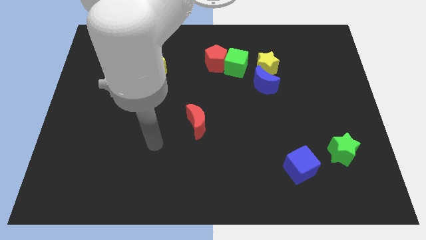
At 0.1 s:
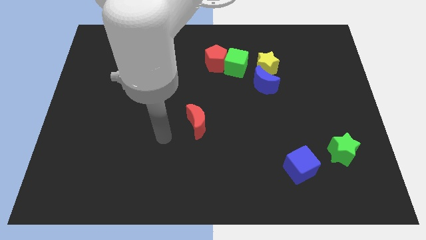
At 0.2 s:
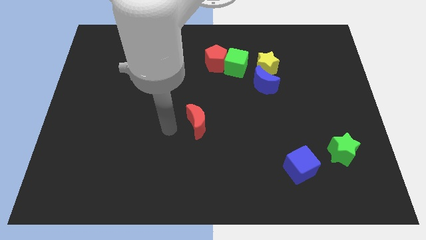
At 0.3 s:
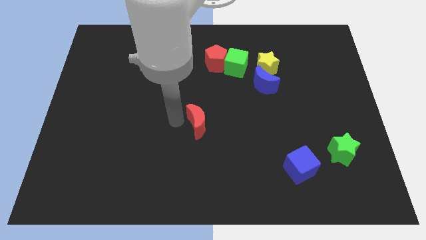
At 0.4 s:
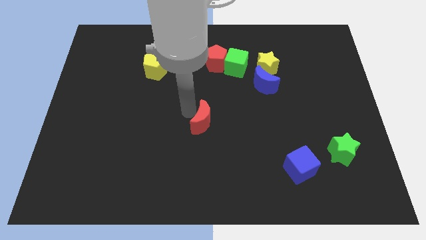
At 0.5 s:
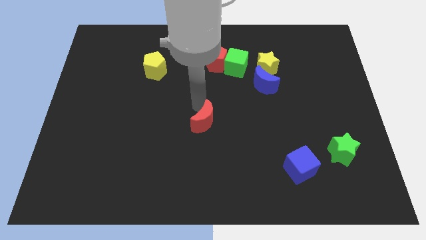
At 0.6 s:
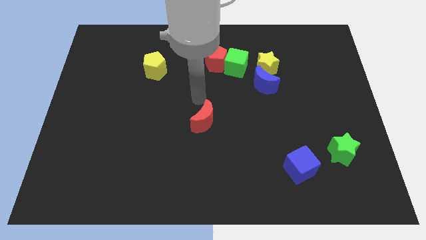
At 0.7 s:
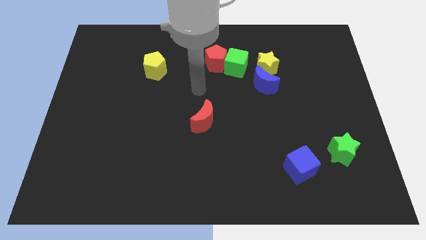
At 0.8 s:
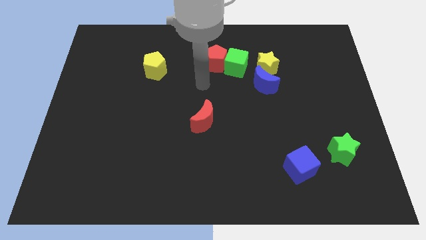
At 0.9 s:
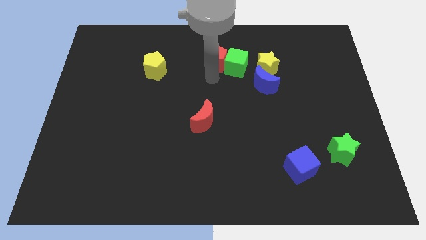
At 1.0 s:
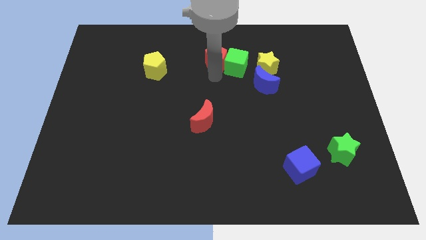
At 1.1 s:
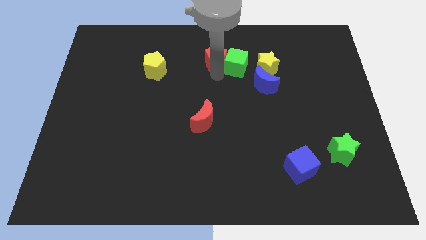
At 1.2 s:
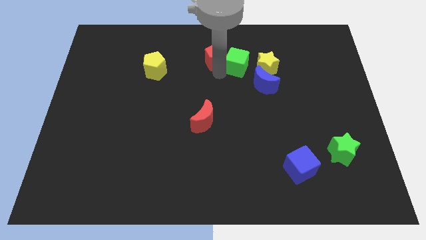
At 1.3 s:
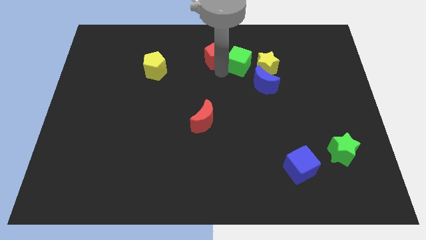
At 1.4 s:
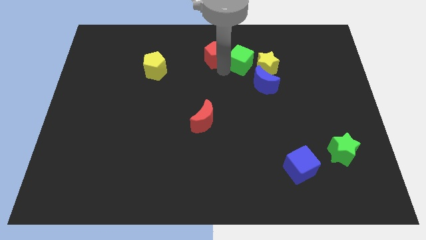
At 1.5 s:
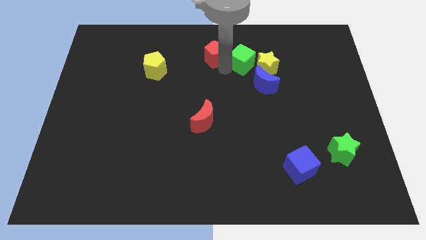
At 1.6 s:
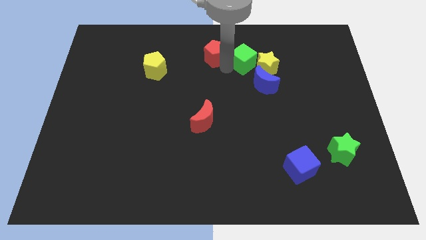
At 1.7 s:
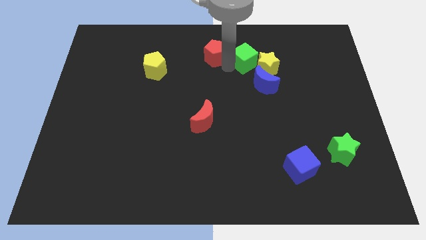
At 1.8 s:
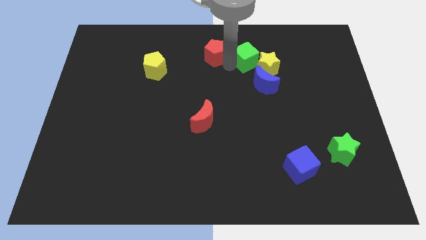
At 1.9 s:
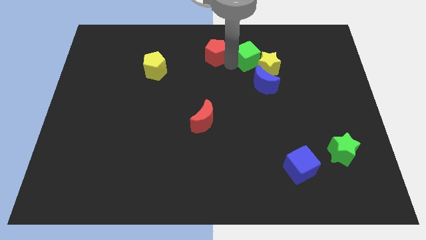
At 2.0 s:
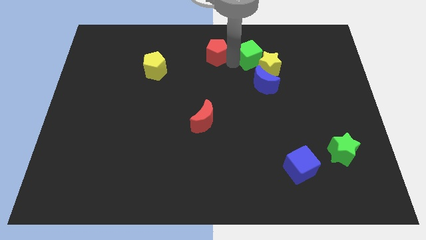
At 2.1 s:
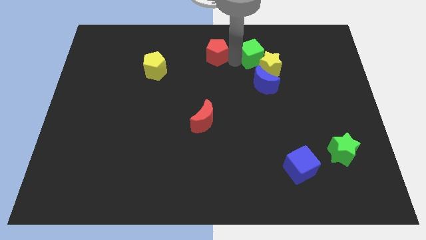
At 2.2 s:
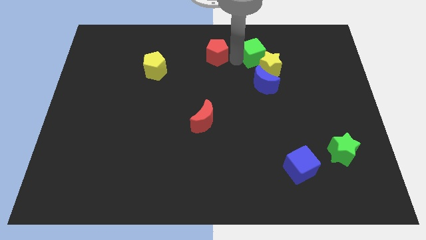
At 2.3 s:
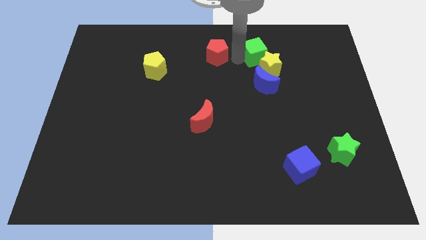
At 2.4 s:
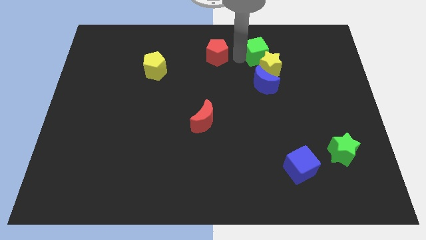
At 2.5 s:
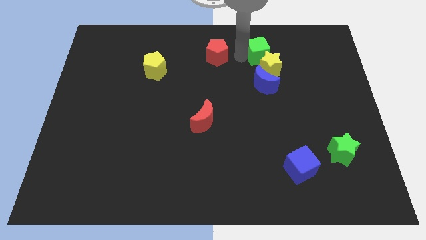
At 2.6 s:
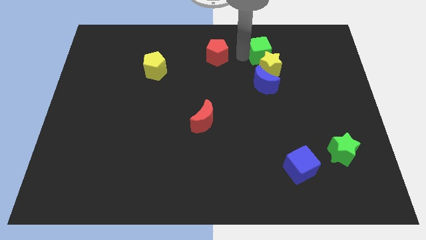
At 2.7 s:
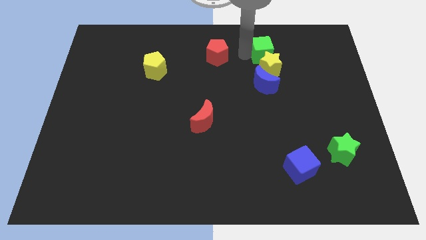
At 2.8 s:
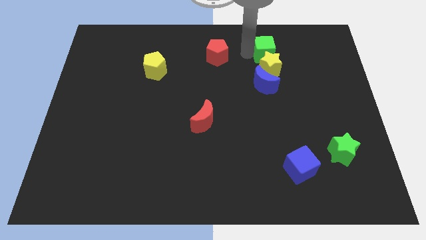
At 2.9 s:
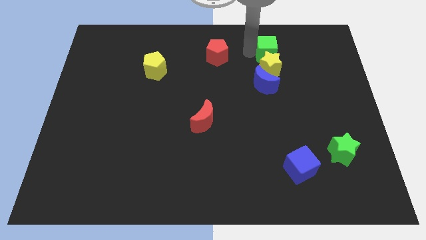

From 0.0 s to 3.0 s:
move the green cube right somewhat

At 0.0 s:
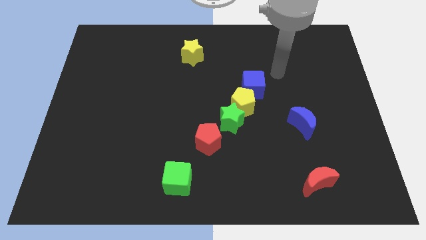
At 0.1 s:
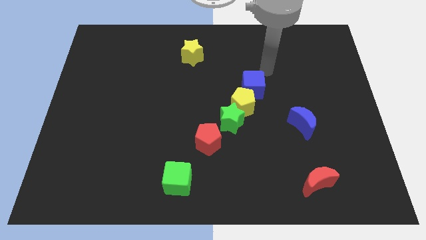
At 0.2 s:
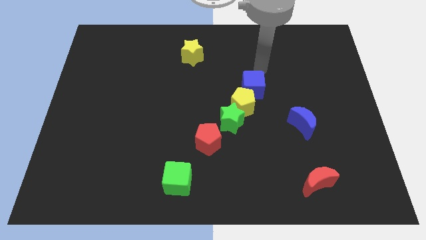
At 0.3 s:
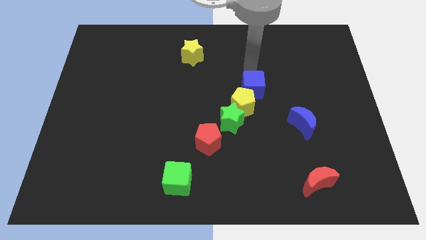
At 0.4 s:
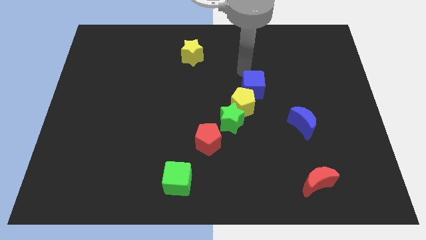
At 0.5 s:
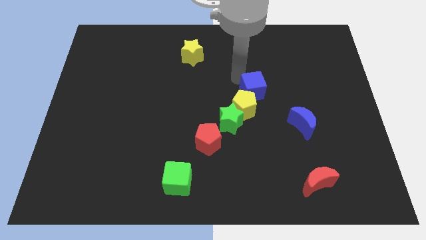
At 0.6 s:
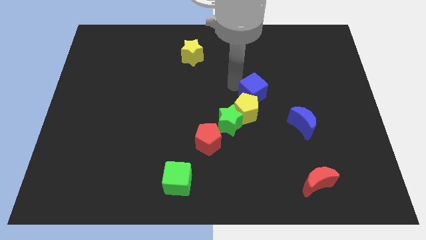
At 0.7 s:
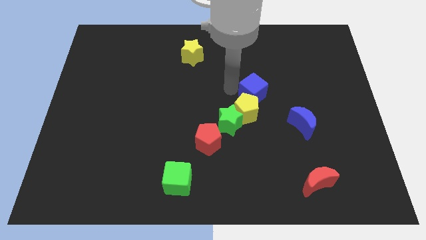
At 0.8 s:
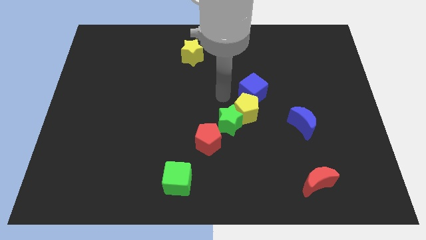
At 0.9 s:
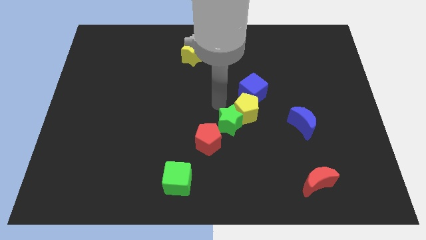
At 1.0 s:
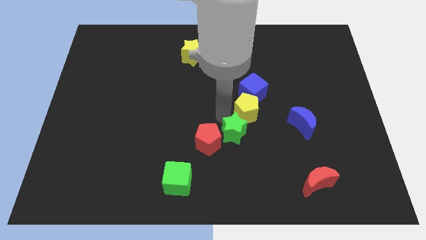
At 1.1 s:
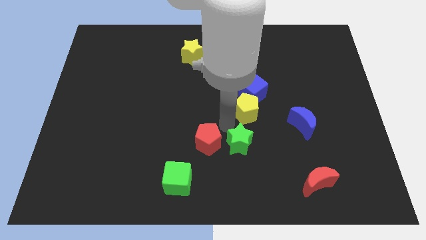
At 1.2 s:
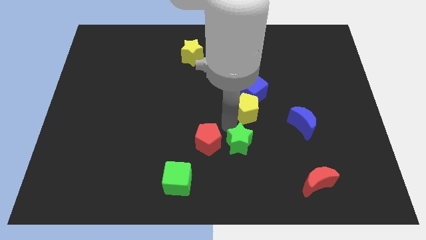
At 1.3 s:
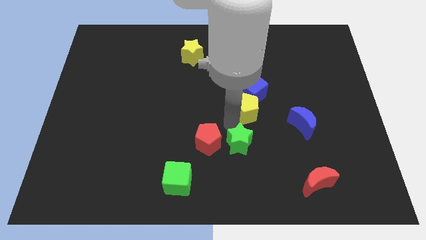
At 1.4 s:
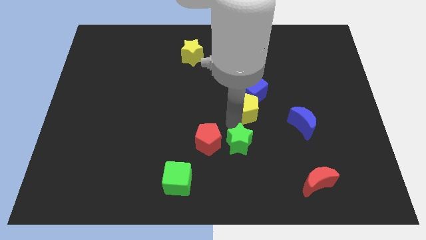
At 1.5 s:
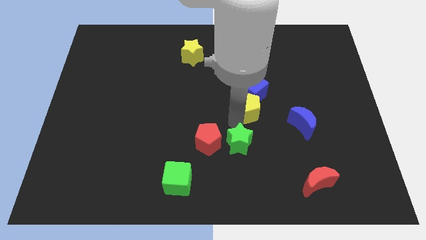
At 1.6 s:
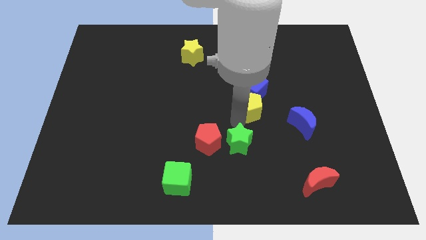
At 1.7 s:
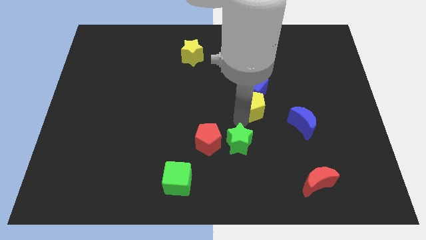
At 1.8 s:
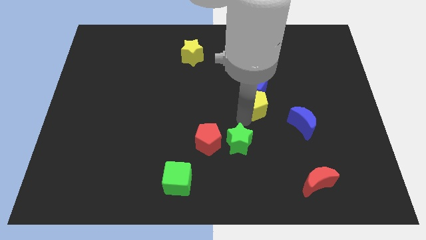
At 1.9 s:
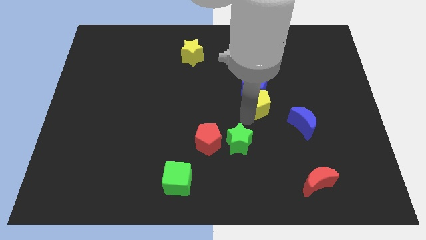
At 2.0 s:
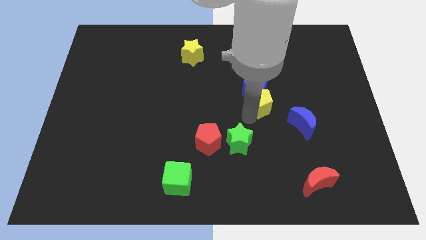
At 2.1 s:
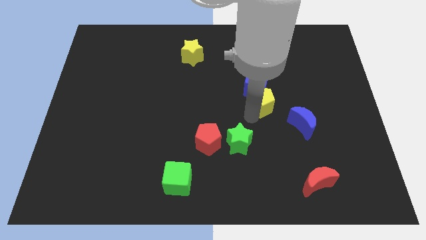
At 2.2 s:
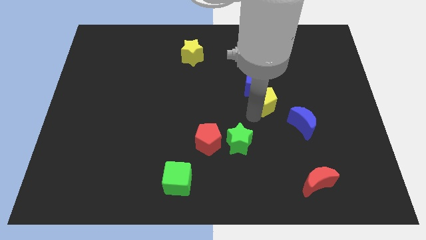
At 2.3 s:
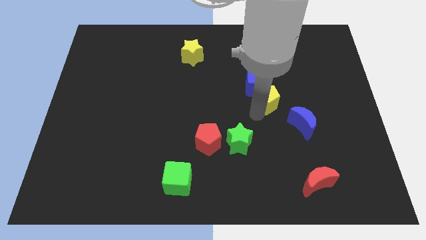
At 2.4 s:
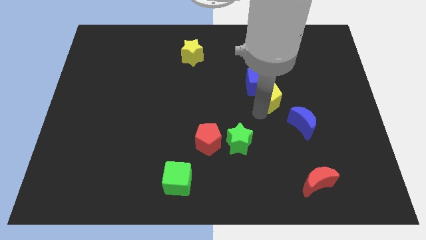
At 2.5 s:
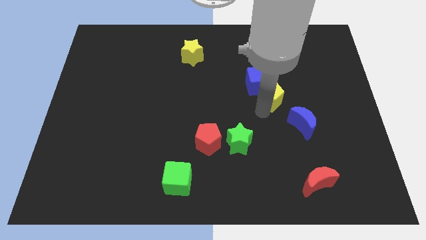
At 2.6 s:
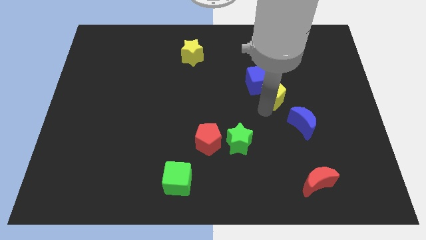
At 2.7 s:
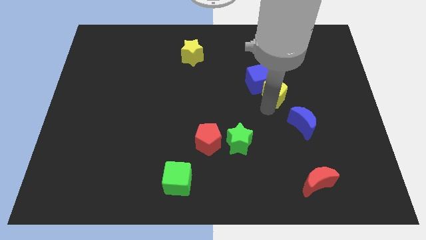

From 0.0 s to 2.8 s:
slide the yellow pentagon up and then to the right a little bit

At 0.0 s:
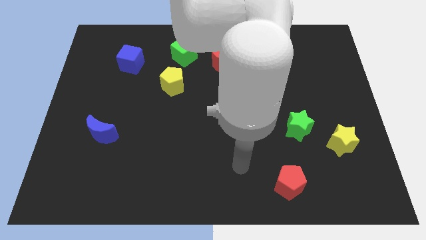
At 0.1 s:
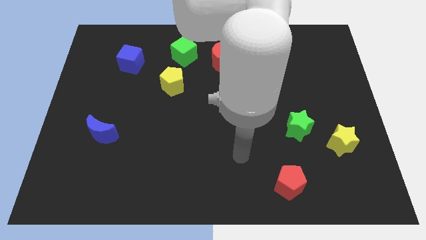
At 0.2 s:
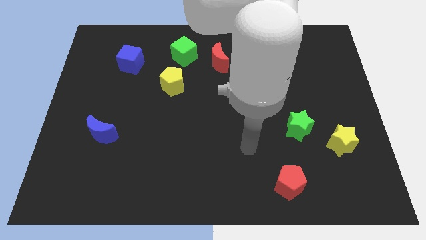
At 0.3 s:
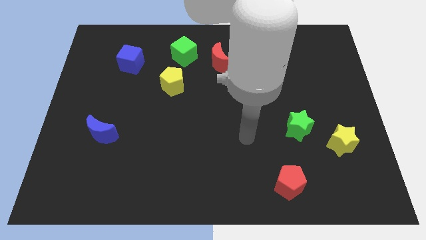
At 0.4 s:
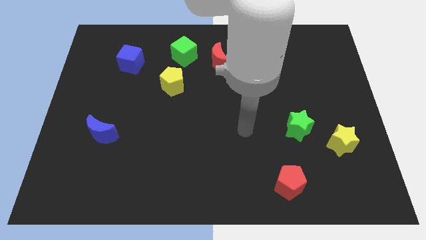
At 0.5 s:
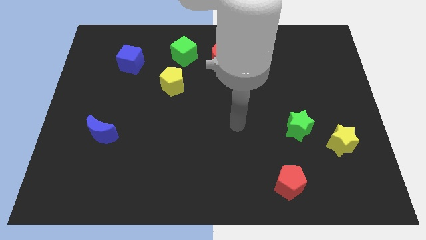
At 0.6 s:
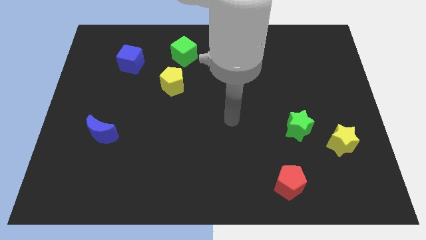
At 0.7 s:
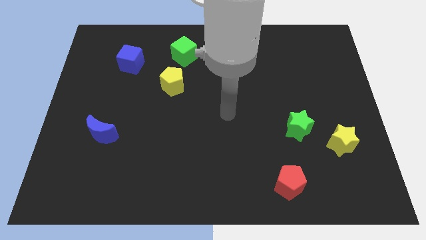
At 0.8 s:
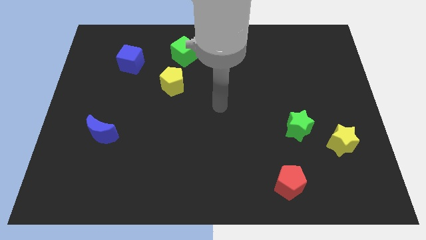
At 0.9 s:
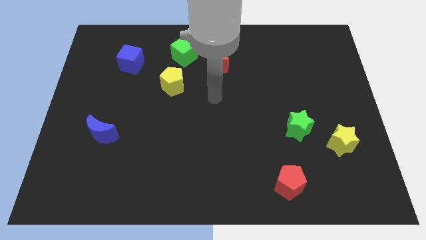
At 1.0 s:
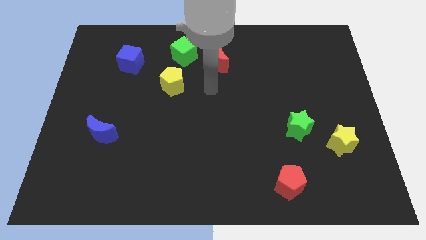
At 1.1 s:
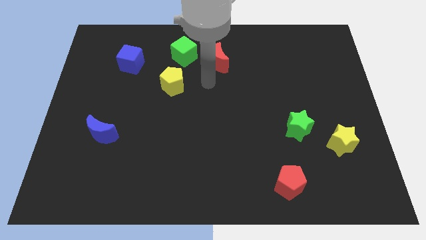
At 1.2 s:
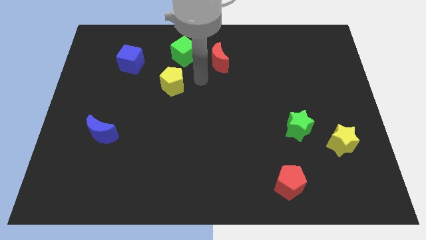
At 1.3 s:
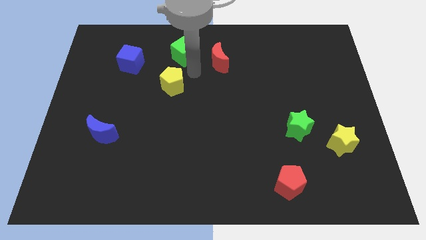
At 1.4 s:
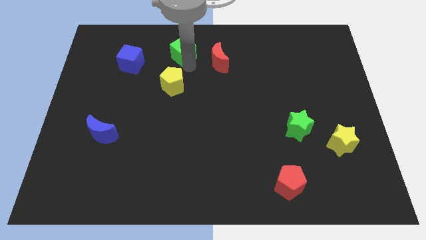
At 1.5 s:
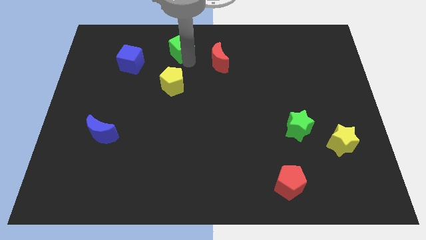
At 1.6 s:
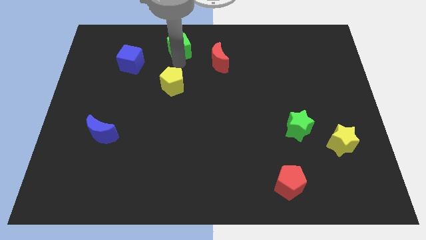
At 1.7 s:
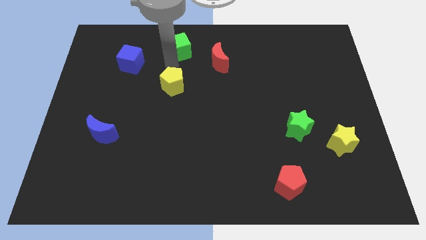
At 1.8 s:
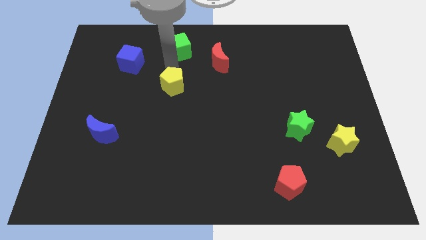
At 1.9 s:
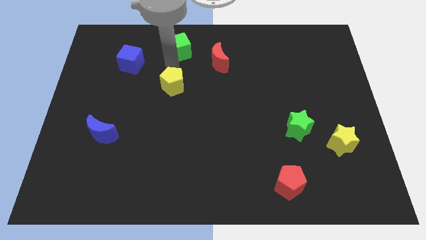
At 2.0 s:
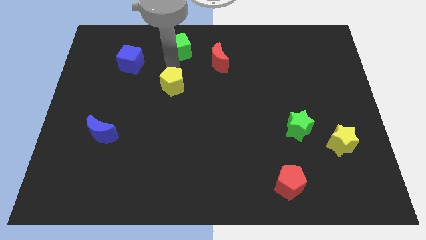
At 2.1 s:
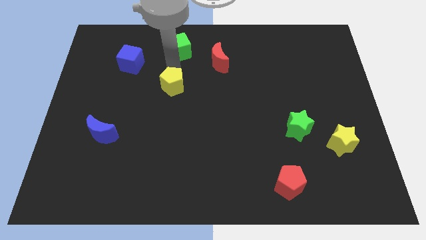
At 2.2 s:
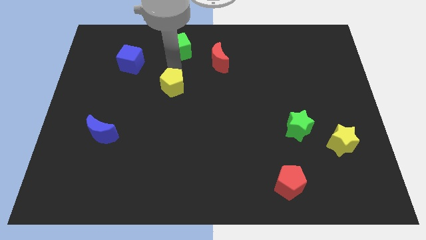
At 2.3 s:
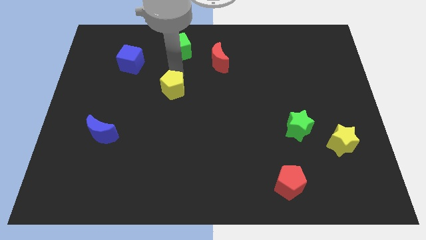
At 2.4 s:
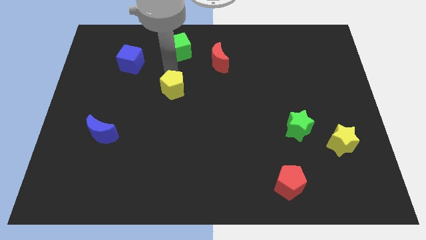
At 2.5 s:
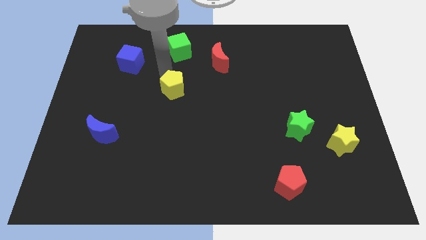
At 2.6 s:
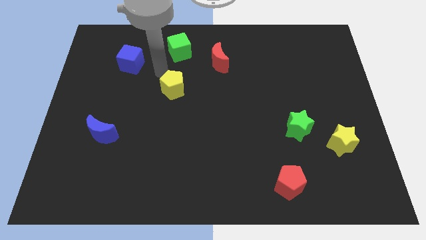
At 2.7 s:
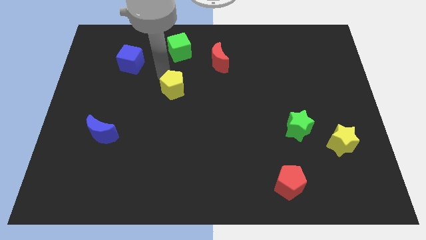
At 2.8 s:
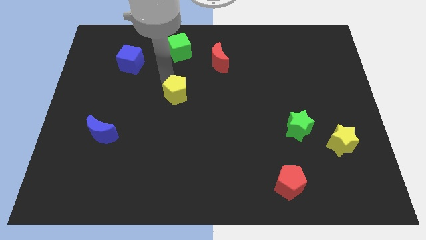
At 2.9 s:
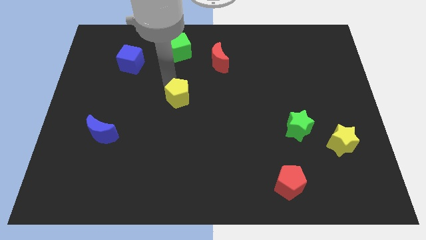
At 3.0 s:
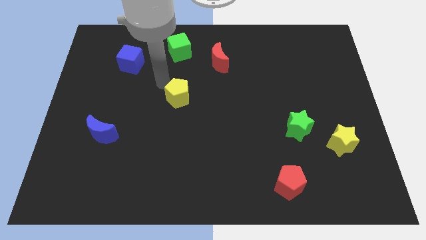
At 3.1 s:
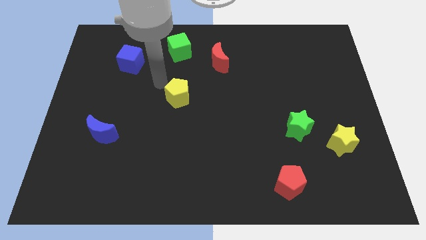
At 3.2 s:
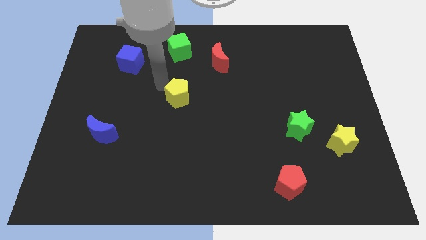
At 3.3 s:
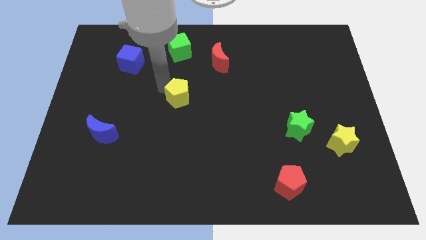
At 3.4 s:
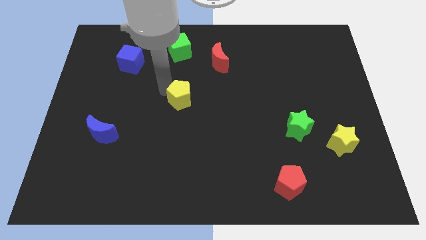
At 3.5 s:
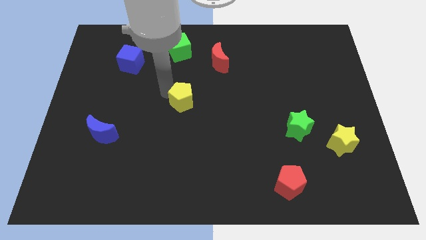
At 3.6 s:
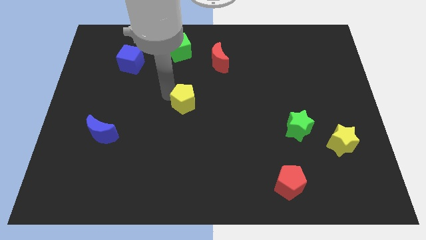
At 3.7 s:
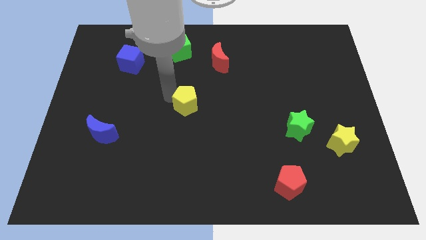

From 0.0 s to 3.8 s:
slightly move the yellow pentagon downwards and to the right diagonally
